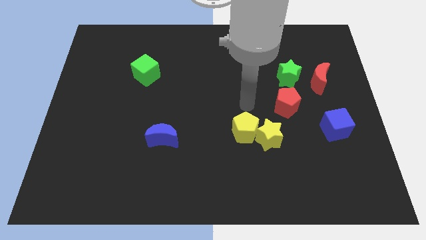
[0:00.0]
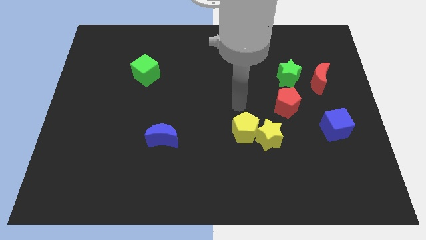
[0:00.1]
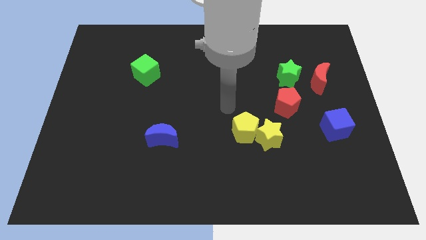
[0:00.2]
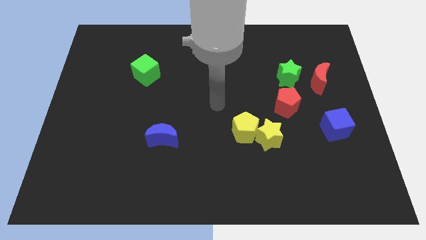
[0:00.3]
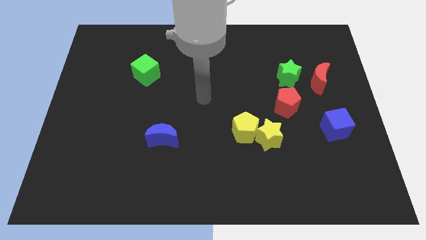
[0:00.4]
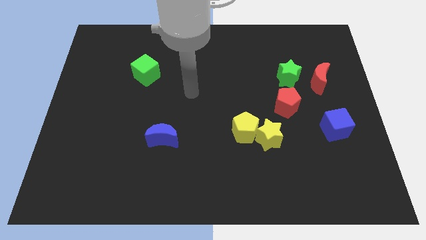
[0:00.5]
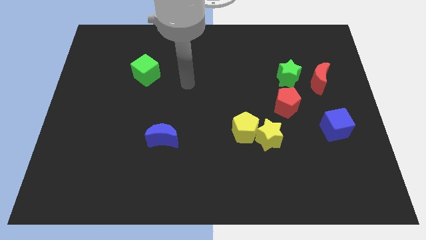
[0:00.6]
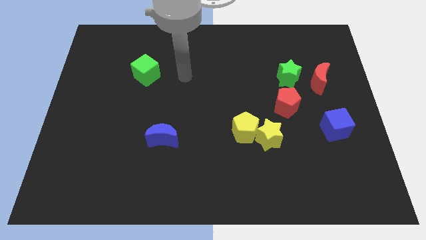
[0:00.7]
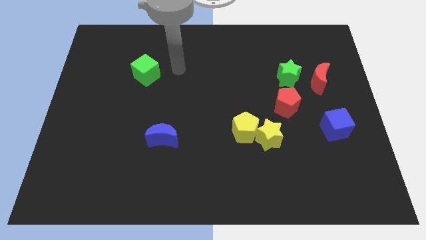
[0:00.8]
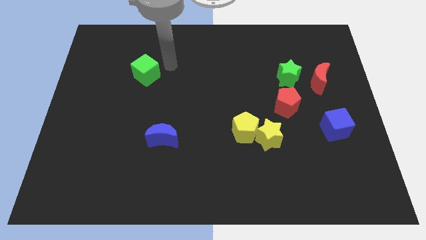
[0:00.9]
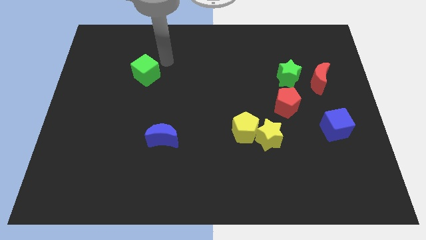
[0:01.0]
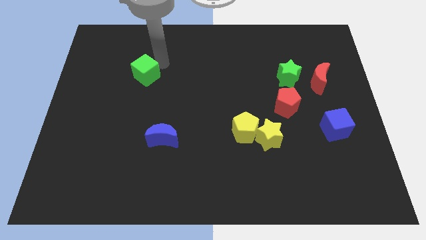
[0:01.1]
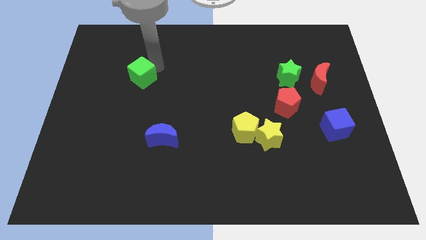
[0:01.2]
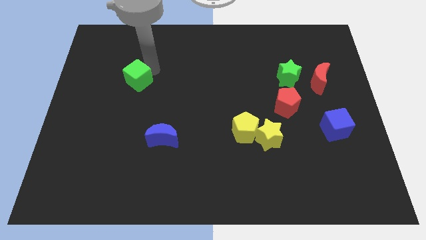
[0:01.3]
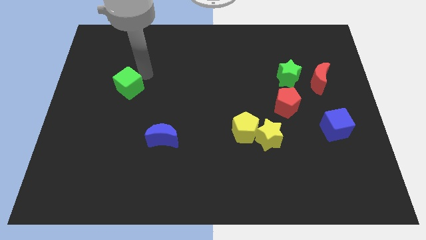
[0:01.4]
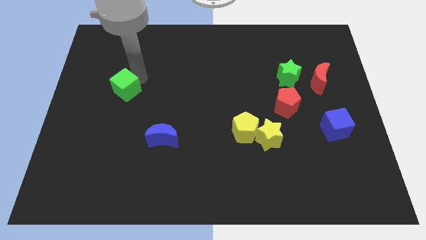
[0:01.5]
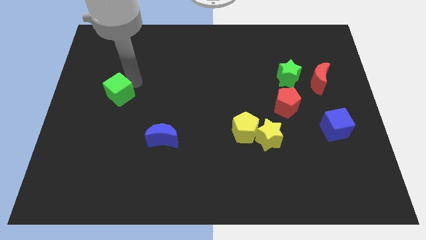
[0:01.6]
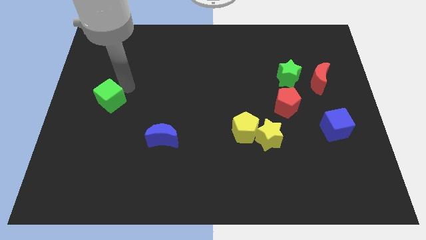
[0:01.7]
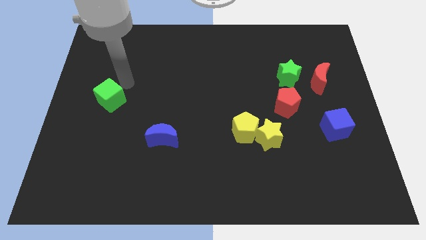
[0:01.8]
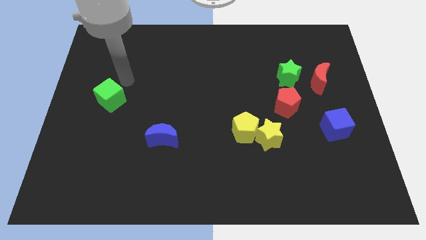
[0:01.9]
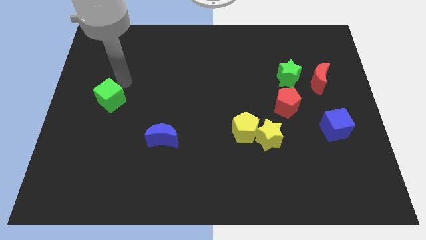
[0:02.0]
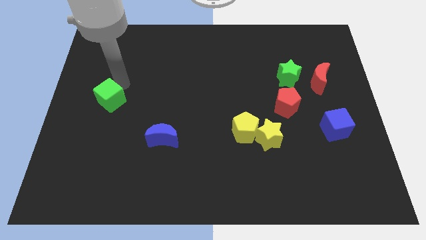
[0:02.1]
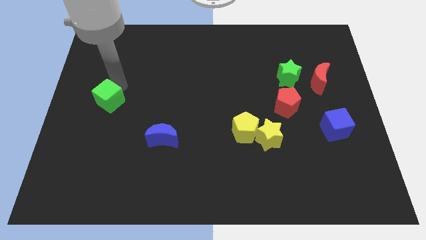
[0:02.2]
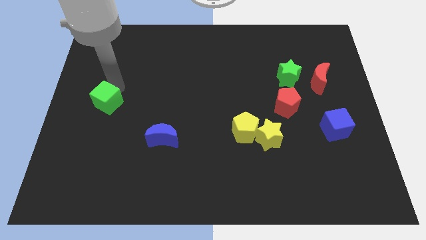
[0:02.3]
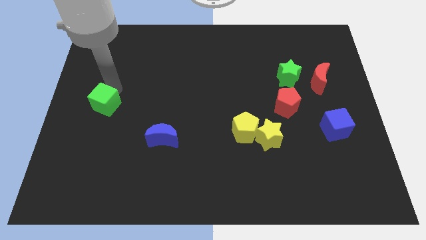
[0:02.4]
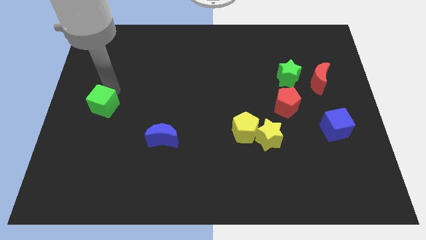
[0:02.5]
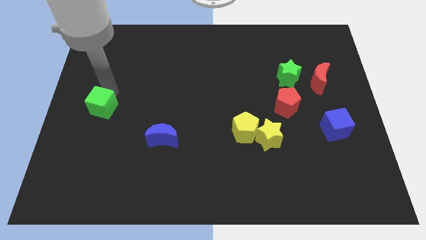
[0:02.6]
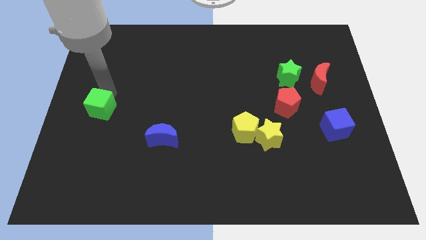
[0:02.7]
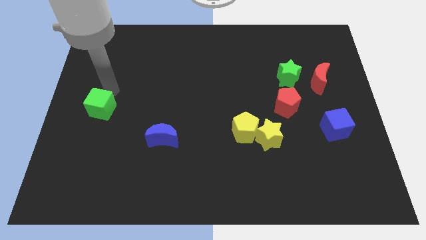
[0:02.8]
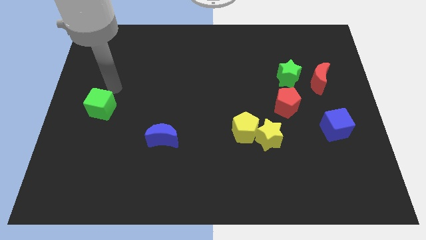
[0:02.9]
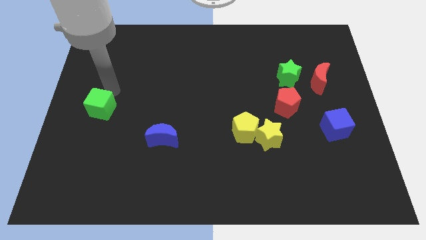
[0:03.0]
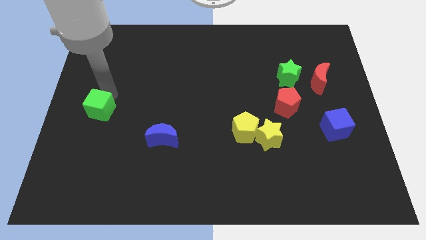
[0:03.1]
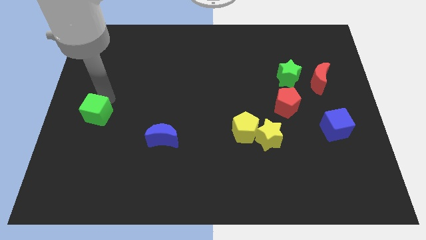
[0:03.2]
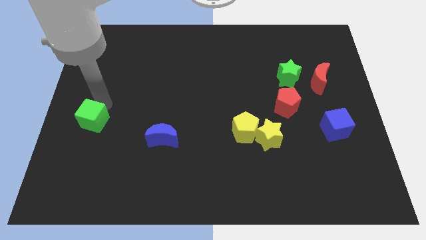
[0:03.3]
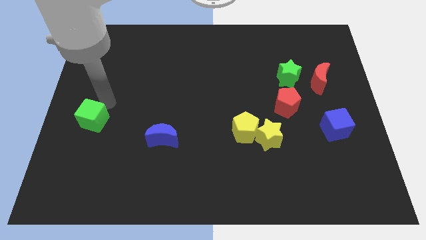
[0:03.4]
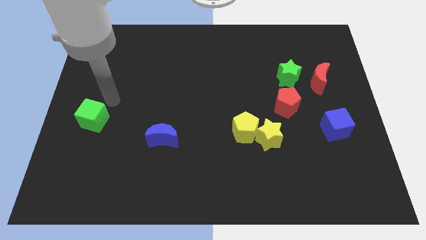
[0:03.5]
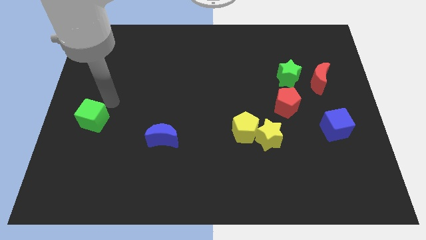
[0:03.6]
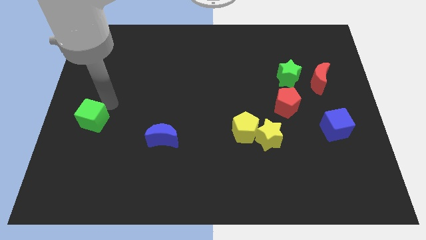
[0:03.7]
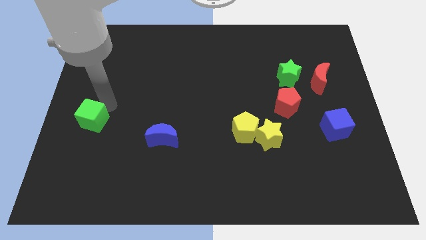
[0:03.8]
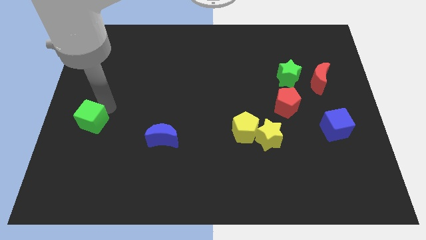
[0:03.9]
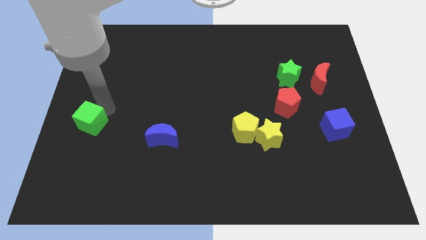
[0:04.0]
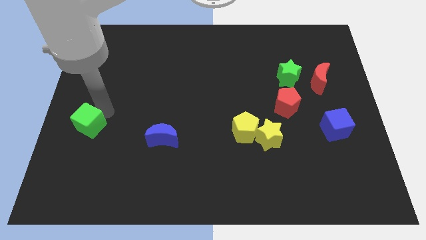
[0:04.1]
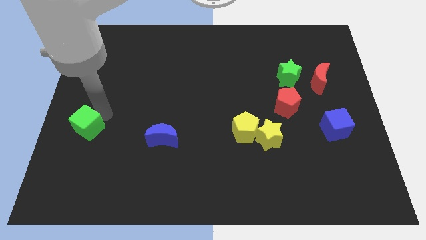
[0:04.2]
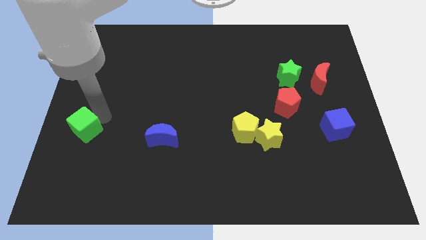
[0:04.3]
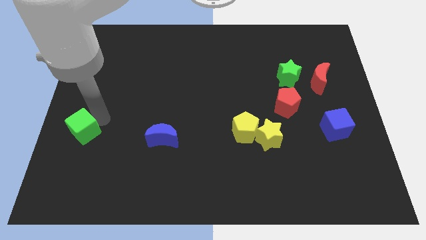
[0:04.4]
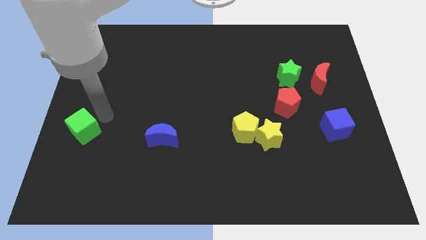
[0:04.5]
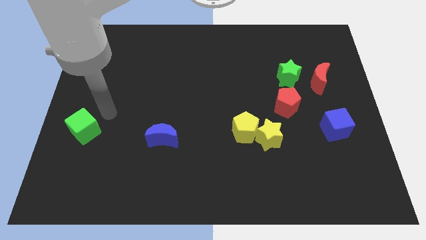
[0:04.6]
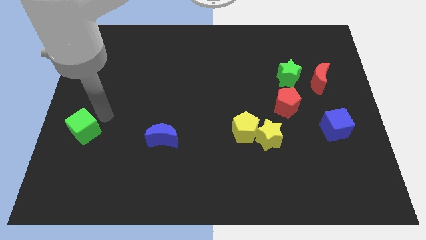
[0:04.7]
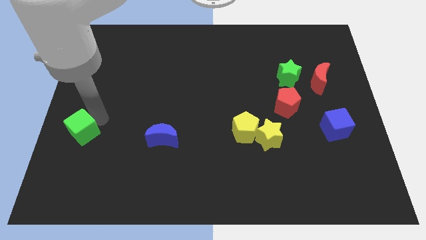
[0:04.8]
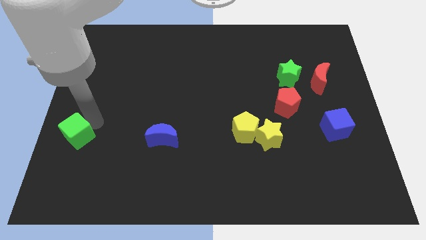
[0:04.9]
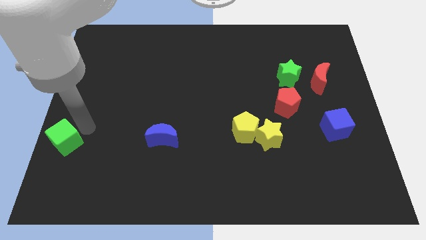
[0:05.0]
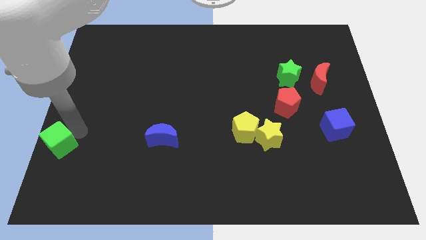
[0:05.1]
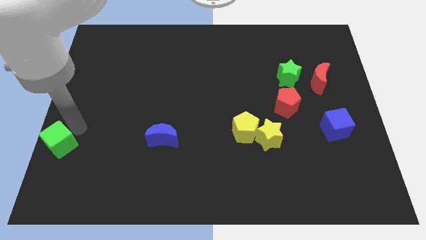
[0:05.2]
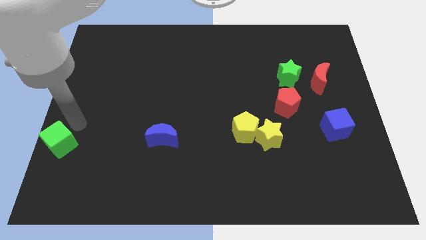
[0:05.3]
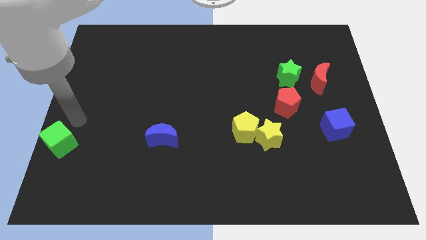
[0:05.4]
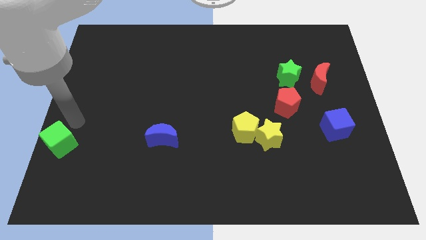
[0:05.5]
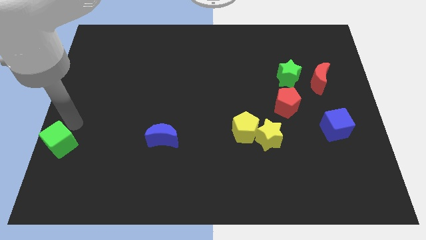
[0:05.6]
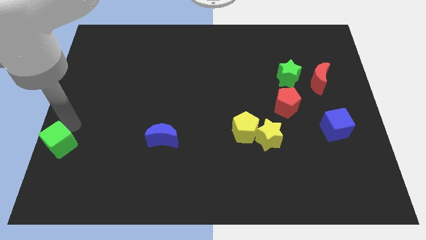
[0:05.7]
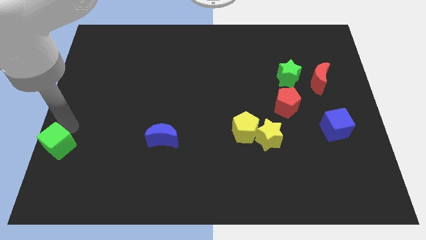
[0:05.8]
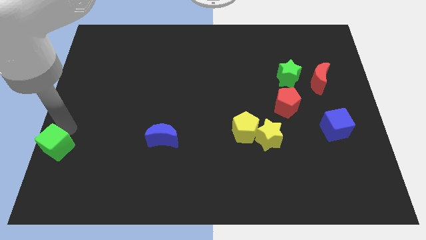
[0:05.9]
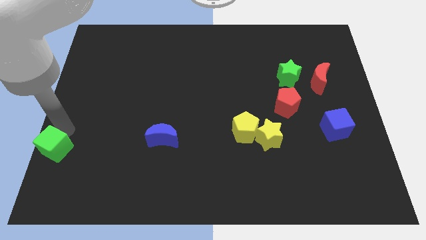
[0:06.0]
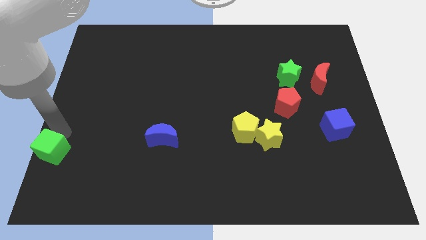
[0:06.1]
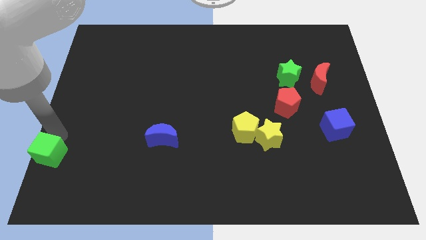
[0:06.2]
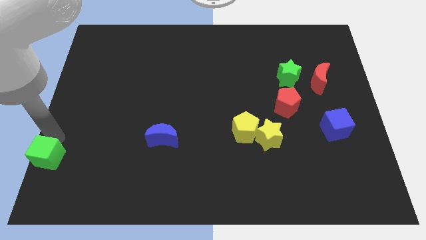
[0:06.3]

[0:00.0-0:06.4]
put the green cube to the lower left corner
